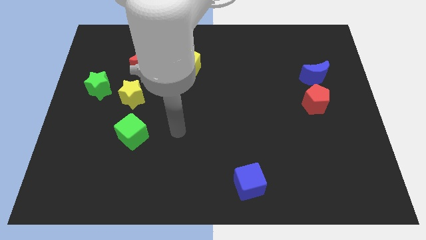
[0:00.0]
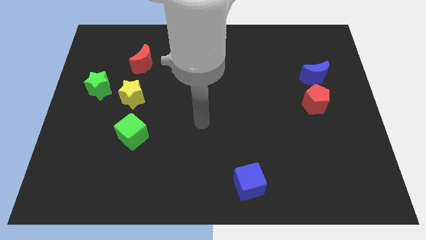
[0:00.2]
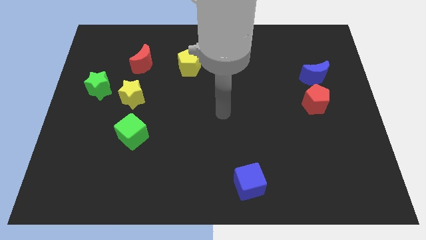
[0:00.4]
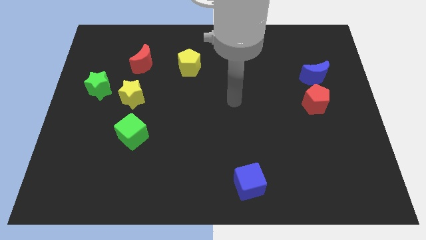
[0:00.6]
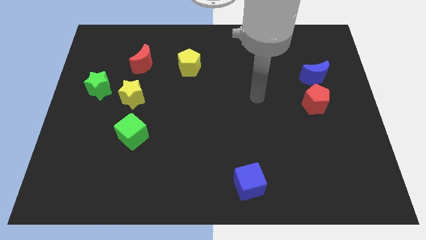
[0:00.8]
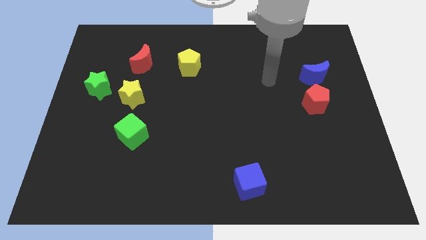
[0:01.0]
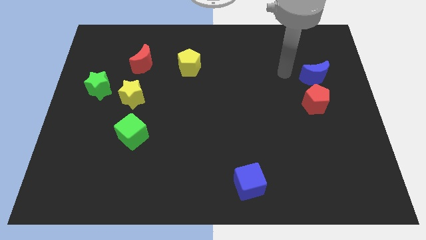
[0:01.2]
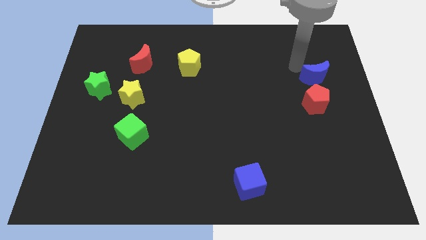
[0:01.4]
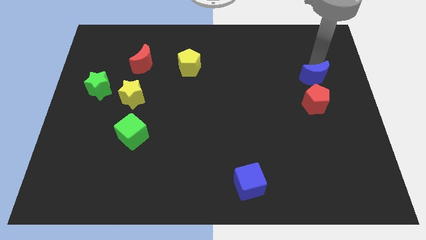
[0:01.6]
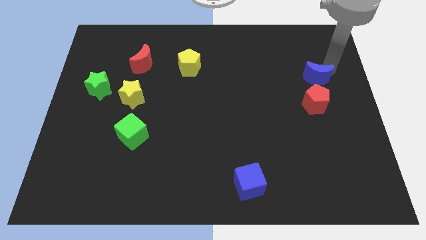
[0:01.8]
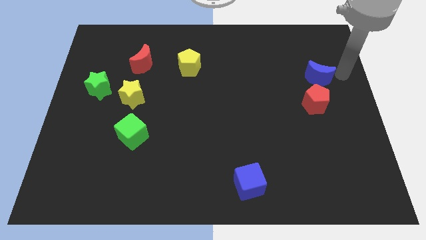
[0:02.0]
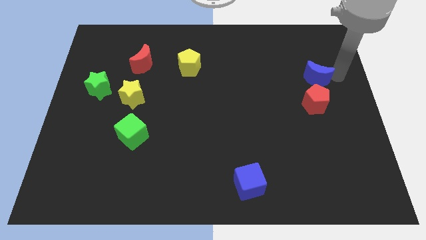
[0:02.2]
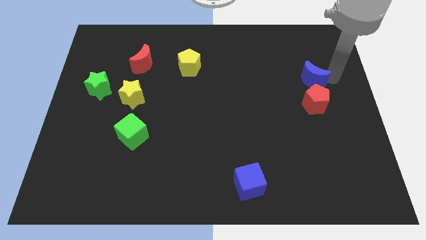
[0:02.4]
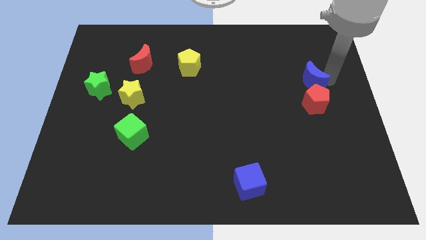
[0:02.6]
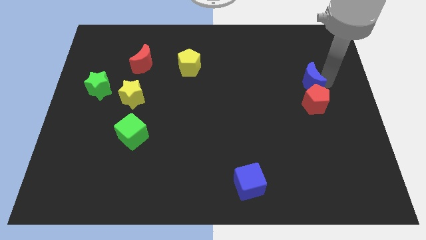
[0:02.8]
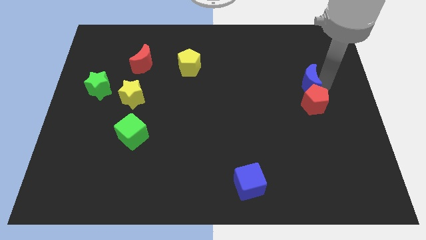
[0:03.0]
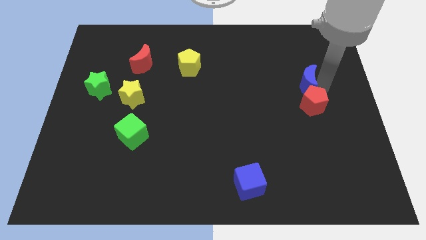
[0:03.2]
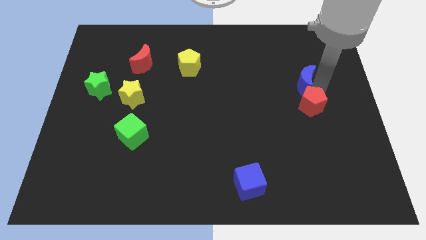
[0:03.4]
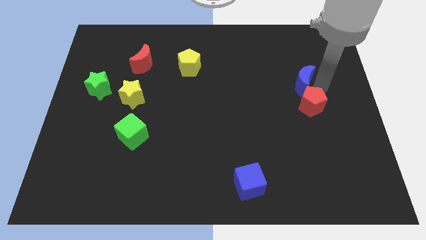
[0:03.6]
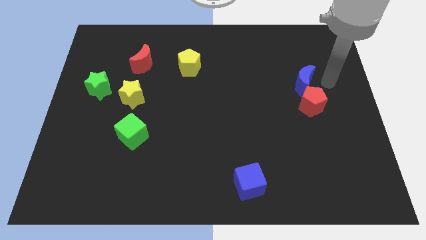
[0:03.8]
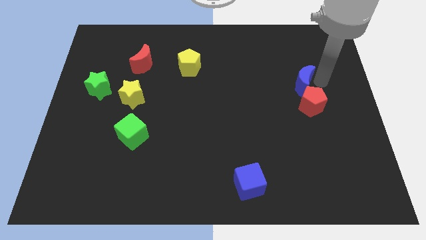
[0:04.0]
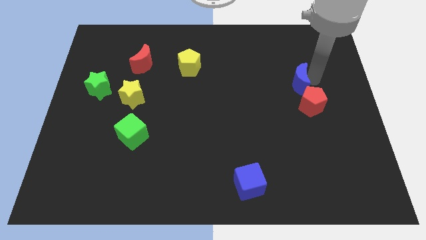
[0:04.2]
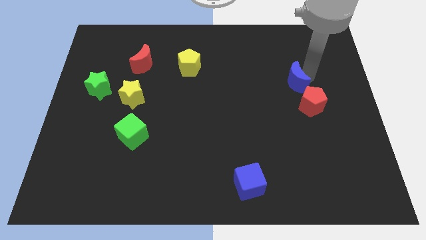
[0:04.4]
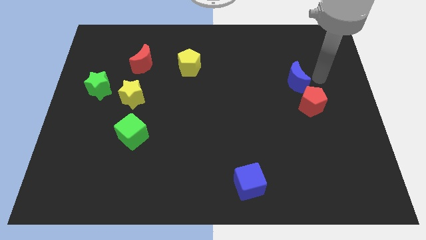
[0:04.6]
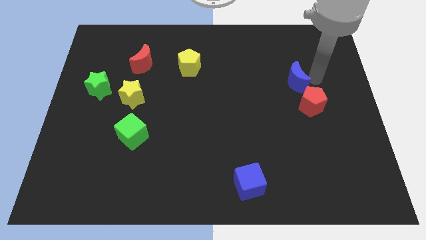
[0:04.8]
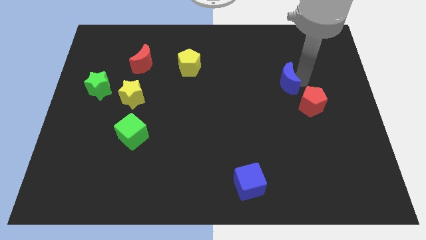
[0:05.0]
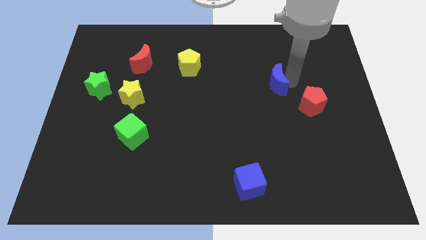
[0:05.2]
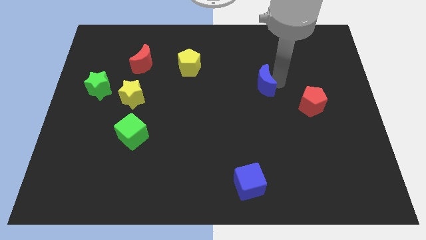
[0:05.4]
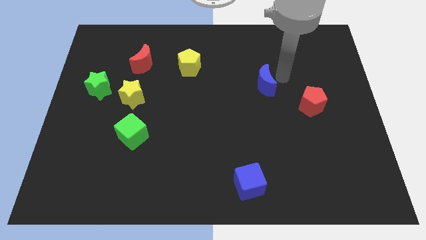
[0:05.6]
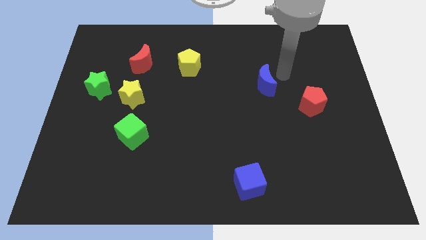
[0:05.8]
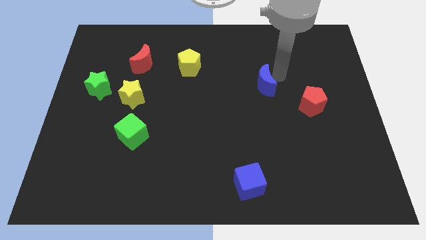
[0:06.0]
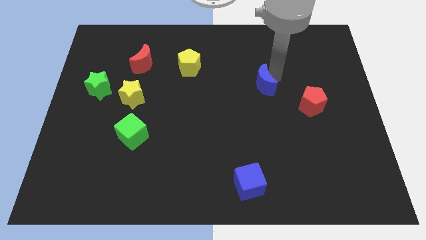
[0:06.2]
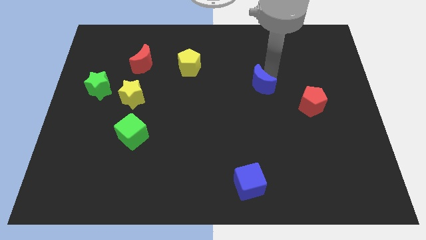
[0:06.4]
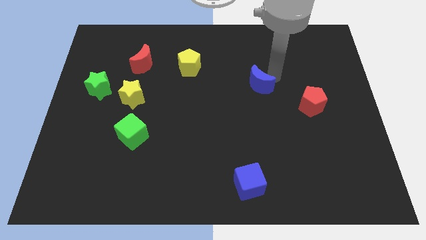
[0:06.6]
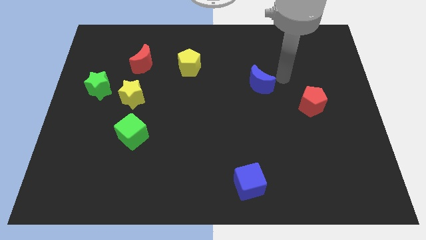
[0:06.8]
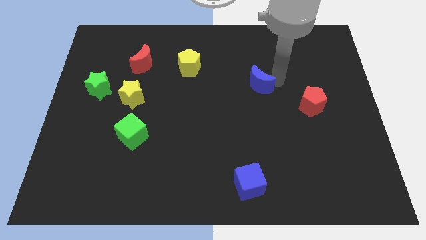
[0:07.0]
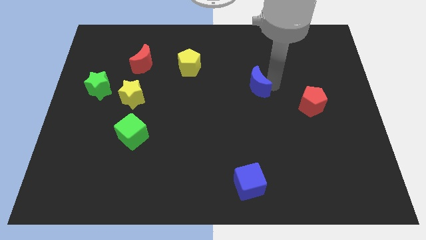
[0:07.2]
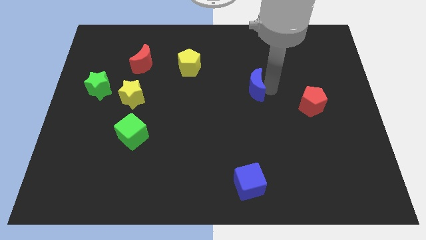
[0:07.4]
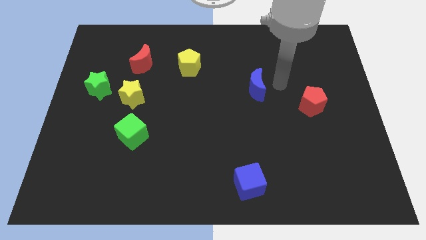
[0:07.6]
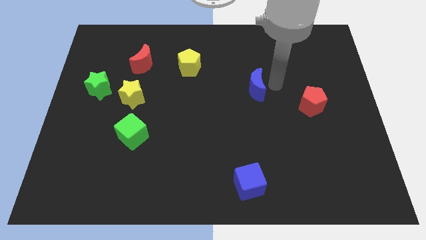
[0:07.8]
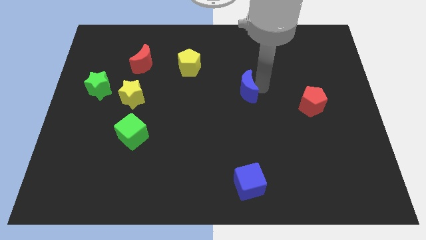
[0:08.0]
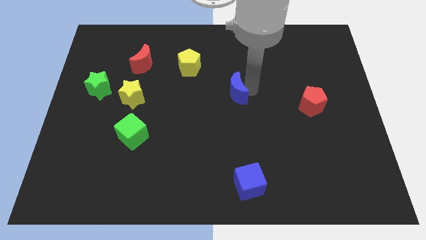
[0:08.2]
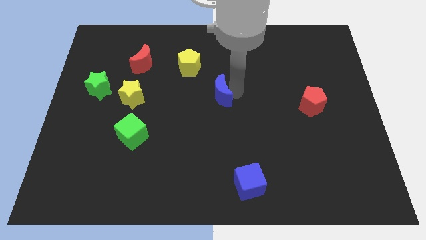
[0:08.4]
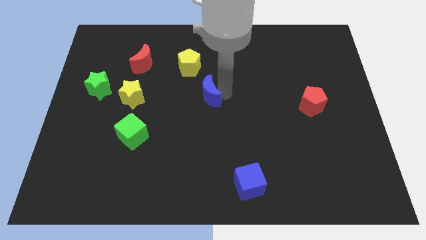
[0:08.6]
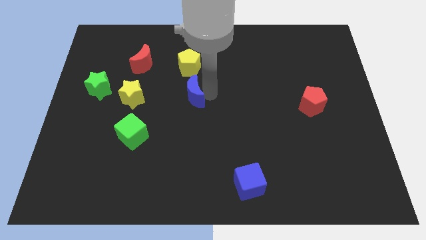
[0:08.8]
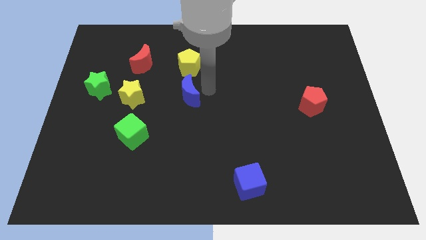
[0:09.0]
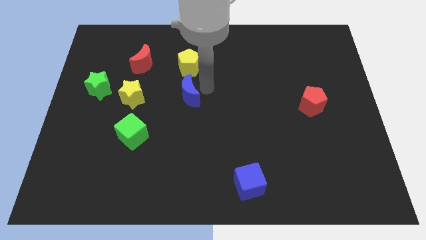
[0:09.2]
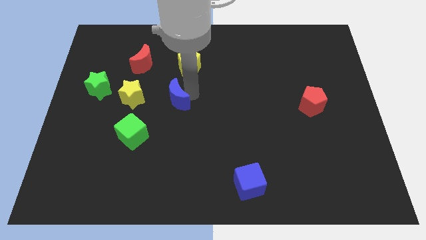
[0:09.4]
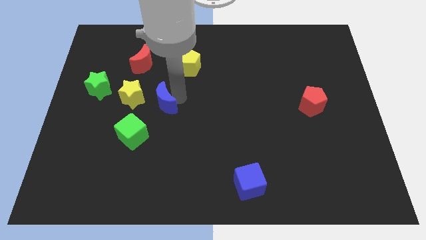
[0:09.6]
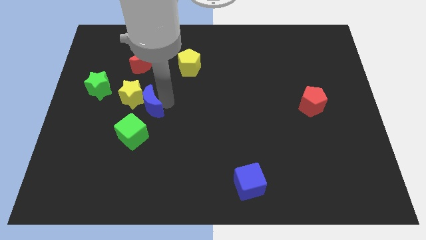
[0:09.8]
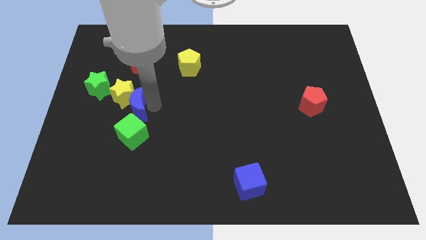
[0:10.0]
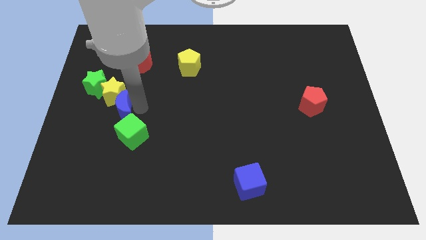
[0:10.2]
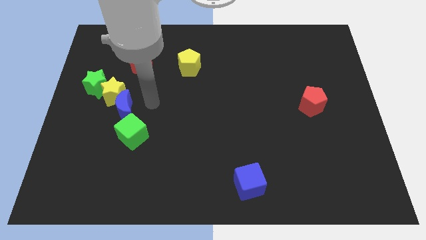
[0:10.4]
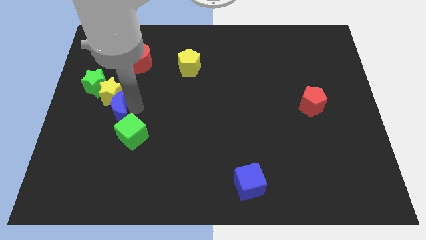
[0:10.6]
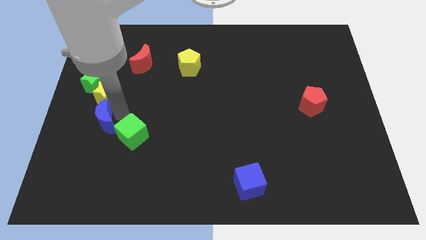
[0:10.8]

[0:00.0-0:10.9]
slide the blue moon to the bottom of the green star
